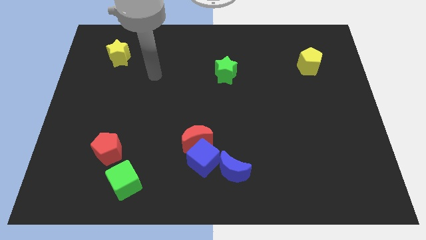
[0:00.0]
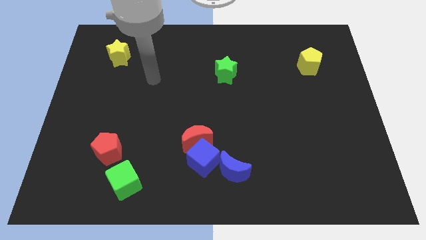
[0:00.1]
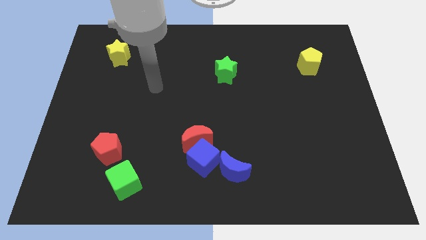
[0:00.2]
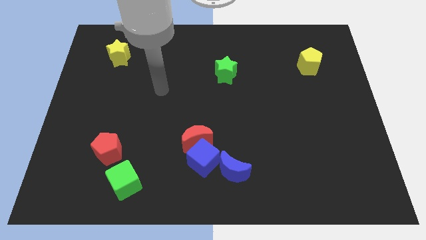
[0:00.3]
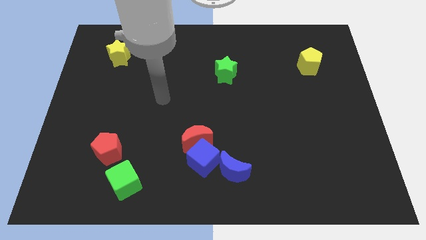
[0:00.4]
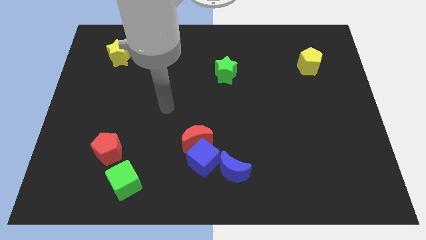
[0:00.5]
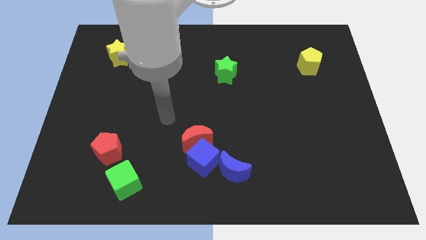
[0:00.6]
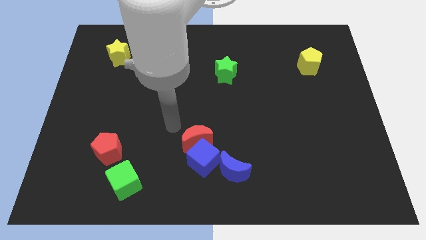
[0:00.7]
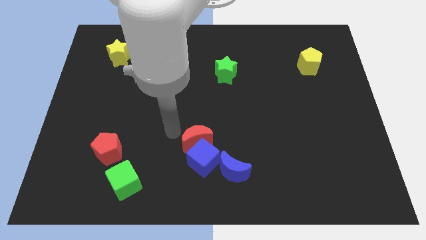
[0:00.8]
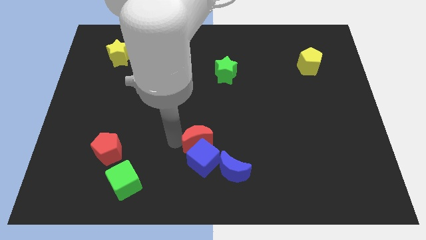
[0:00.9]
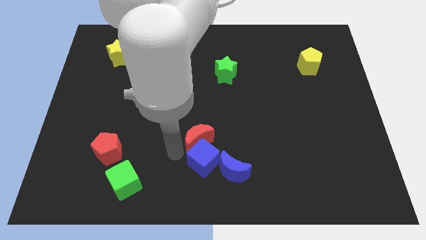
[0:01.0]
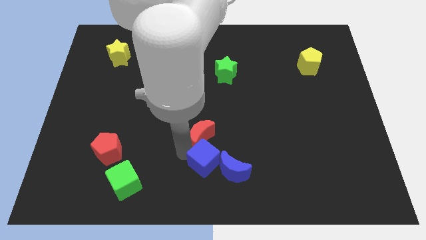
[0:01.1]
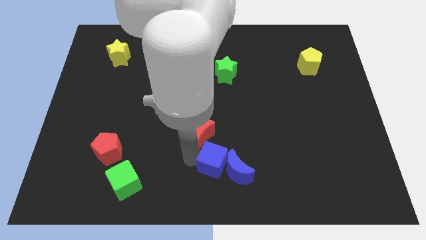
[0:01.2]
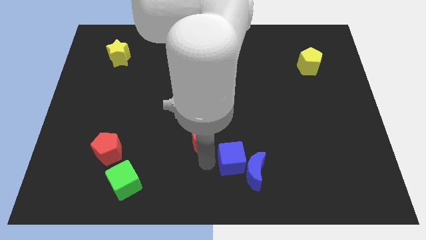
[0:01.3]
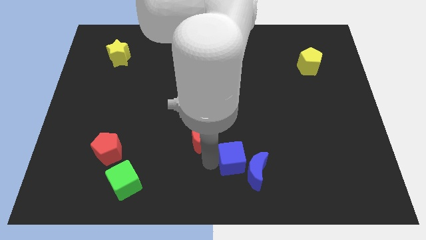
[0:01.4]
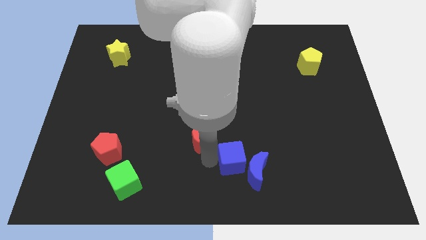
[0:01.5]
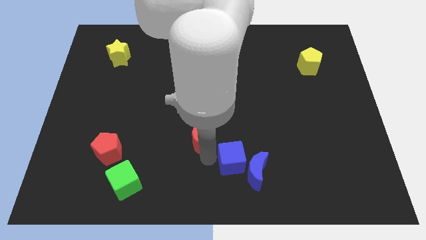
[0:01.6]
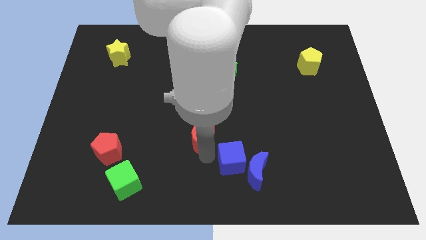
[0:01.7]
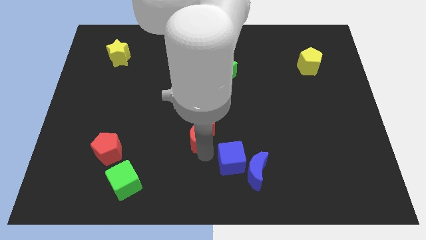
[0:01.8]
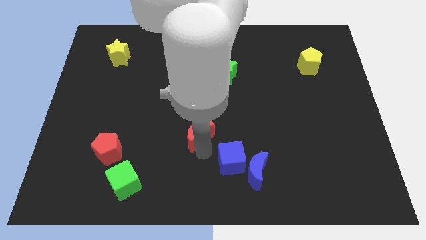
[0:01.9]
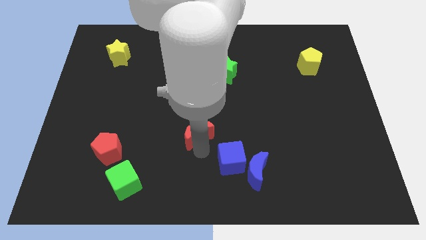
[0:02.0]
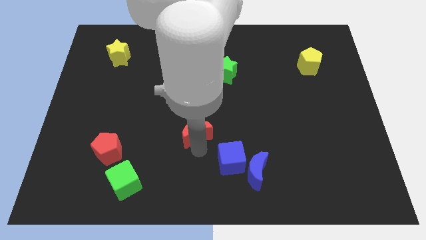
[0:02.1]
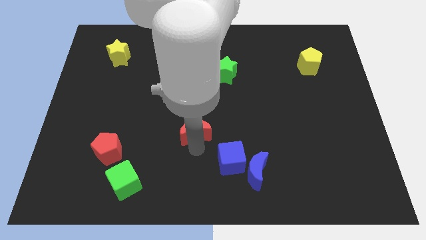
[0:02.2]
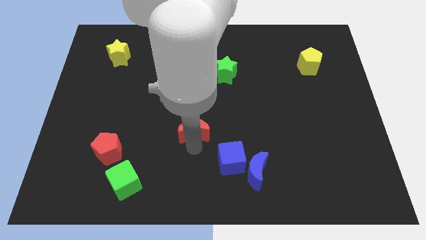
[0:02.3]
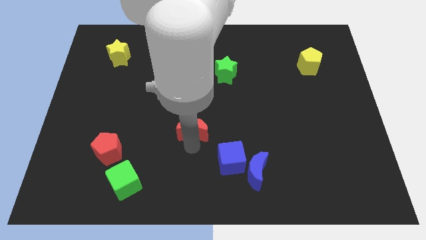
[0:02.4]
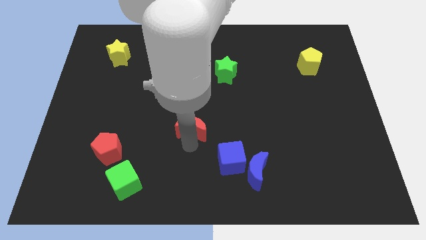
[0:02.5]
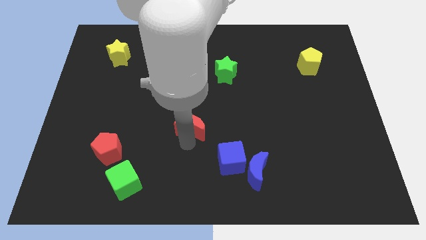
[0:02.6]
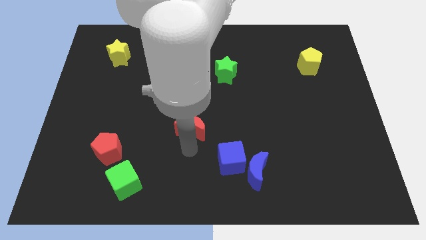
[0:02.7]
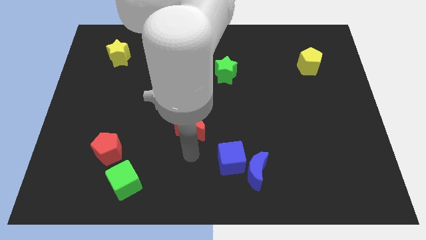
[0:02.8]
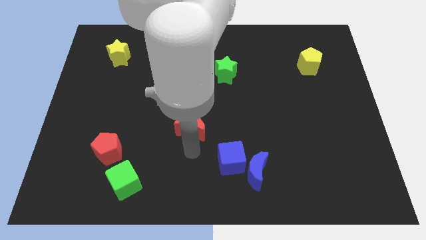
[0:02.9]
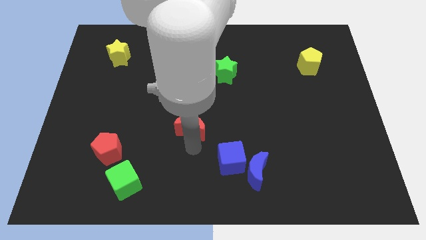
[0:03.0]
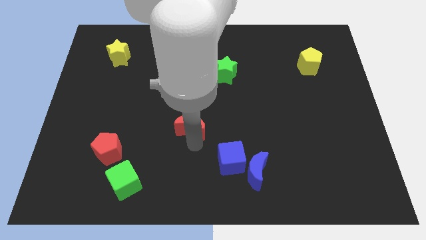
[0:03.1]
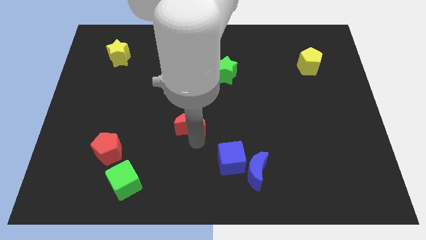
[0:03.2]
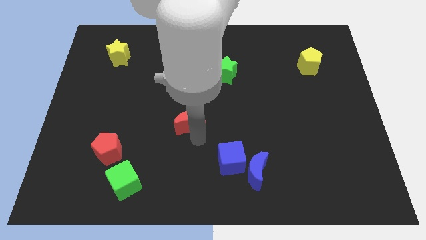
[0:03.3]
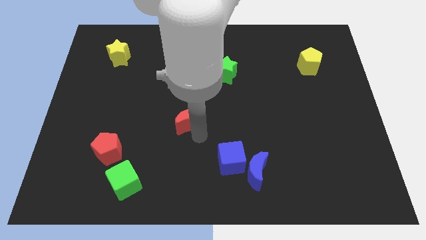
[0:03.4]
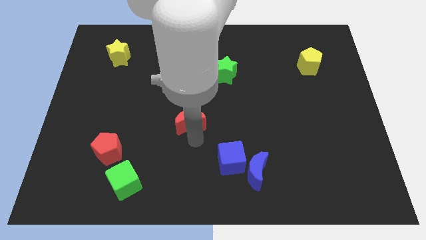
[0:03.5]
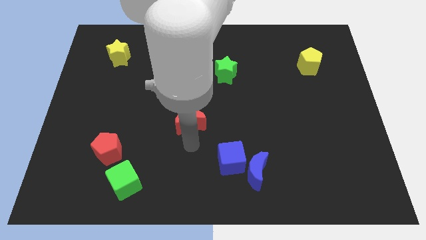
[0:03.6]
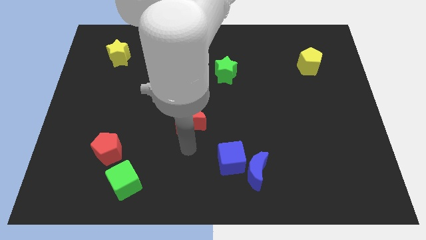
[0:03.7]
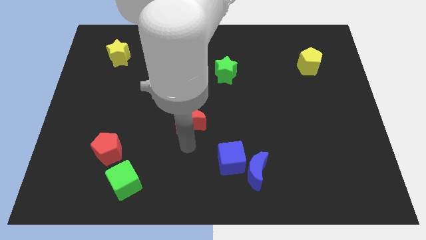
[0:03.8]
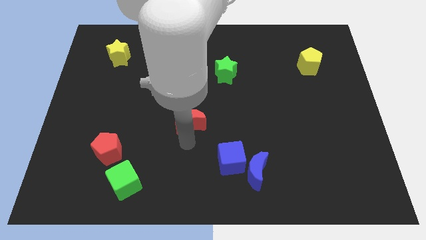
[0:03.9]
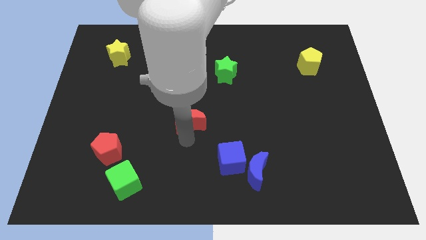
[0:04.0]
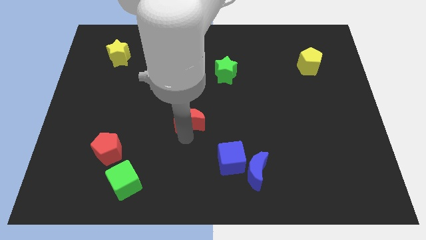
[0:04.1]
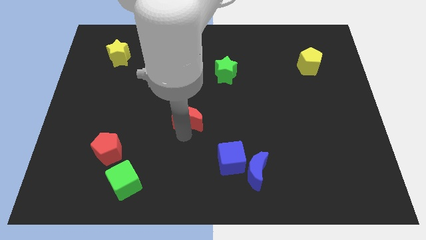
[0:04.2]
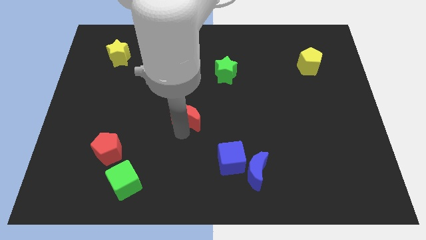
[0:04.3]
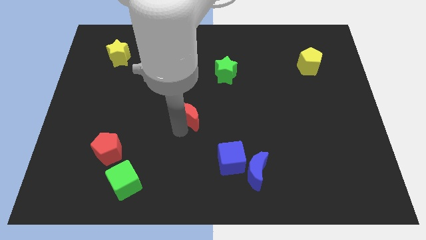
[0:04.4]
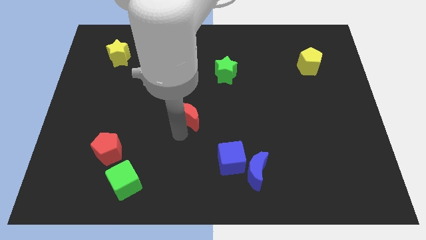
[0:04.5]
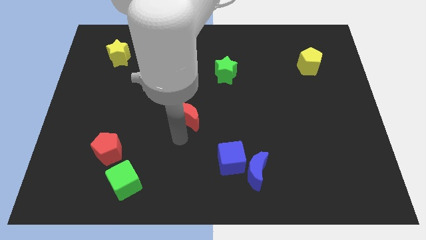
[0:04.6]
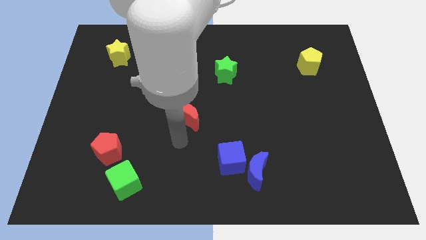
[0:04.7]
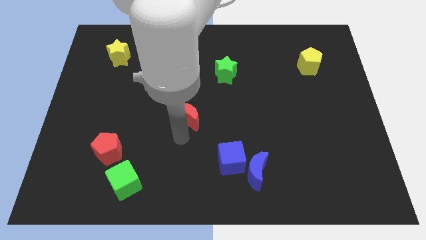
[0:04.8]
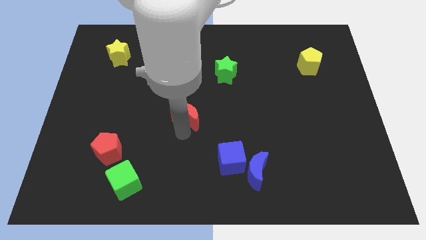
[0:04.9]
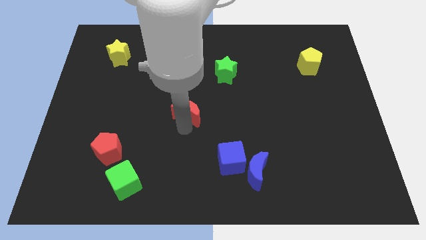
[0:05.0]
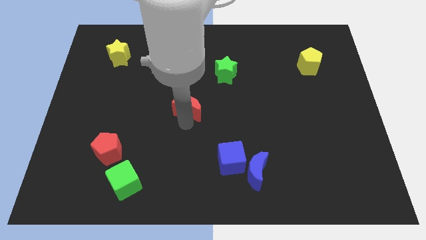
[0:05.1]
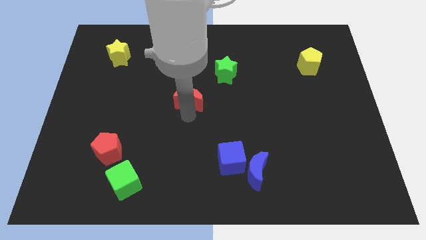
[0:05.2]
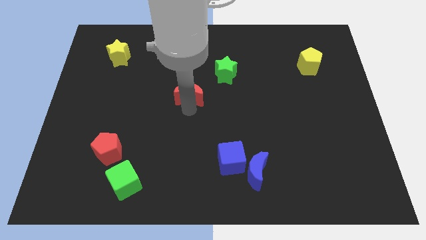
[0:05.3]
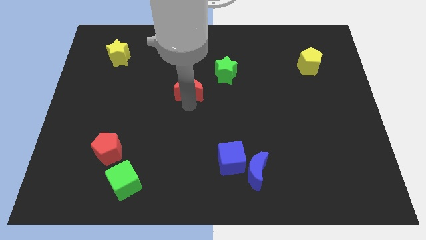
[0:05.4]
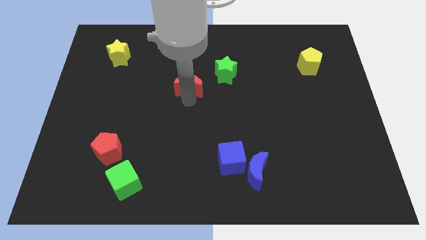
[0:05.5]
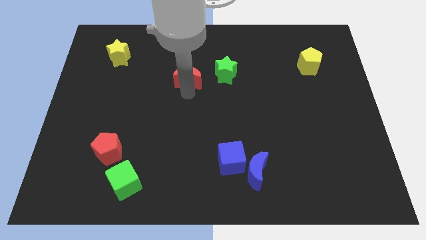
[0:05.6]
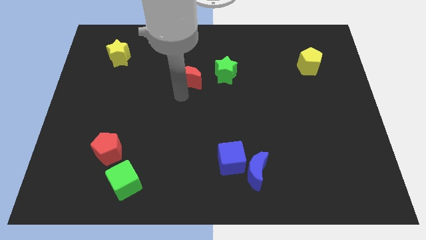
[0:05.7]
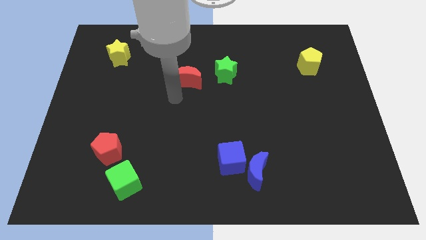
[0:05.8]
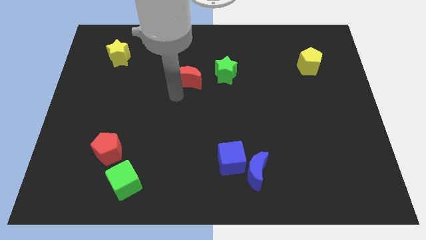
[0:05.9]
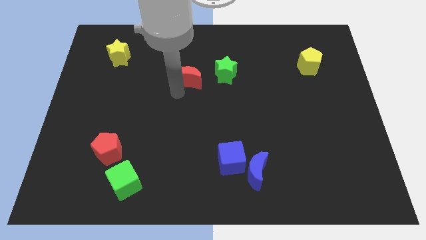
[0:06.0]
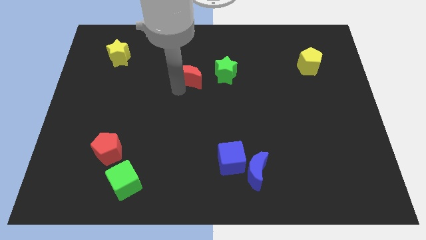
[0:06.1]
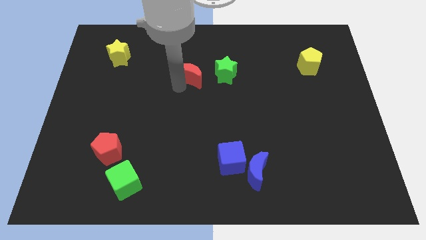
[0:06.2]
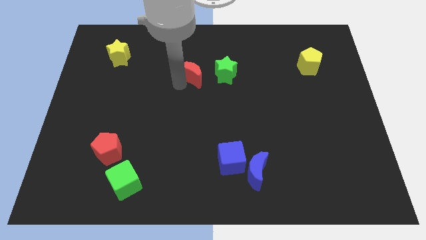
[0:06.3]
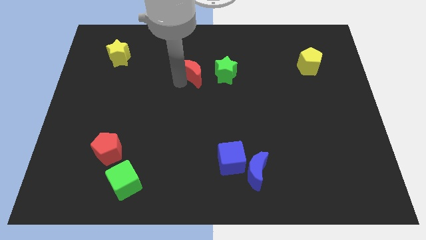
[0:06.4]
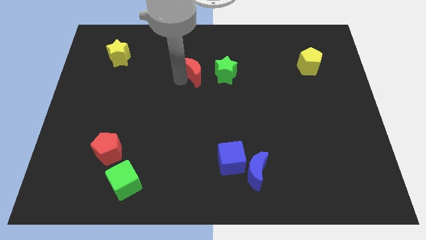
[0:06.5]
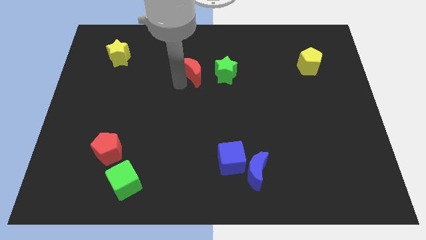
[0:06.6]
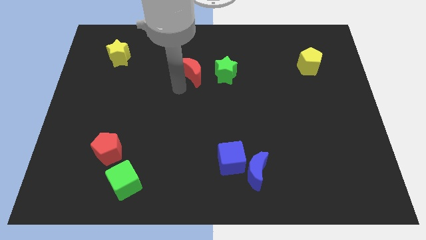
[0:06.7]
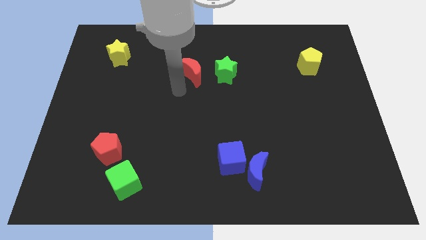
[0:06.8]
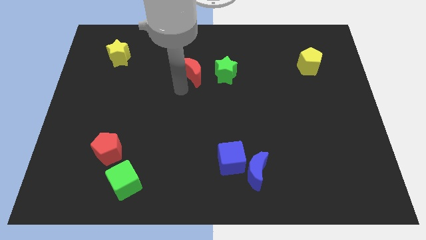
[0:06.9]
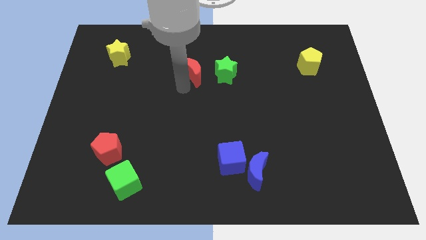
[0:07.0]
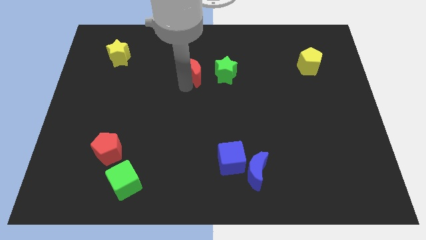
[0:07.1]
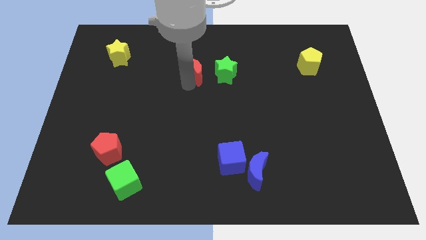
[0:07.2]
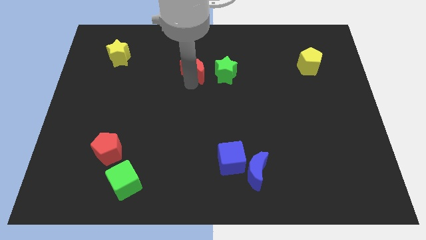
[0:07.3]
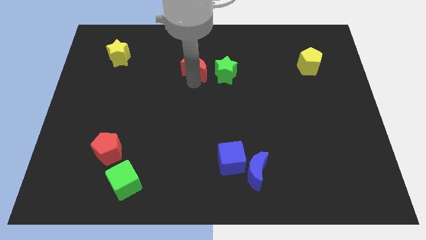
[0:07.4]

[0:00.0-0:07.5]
slide the red moon diagonally up and to the left of the green star

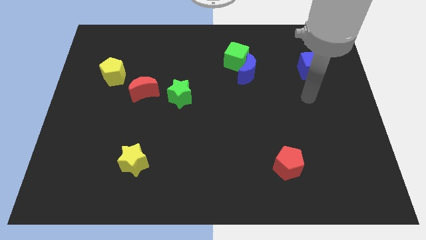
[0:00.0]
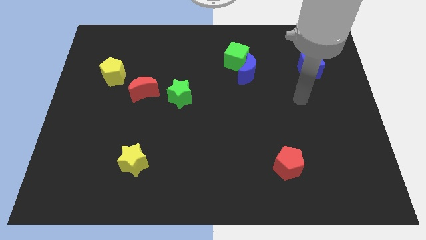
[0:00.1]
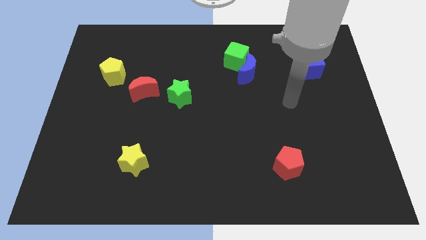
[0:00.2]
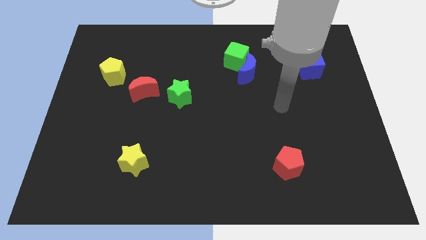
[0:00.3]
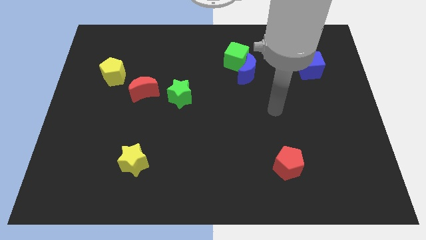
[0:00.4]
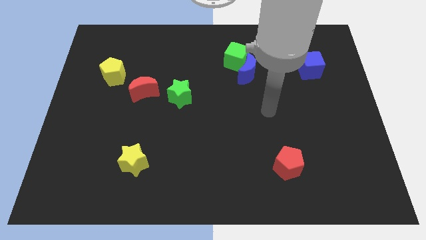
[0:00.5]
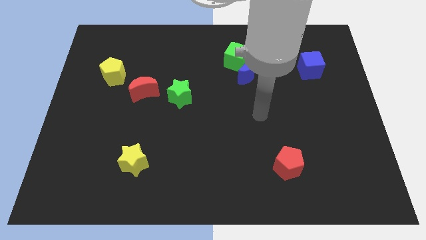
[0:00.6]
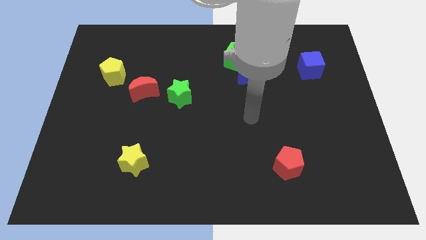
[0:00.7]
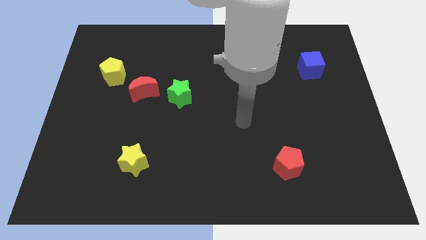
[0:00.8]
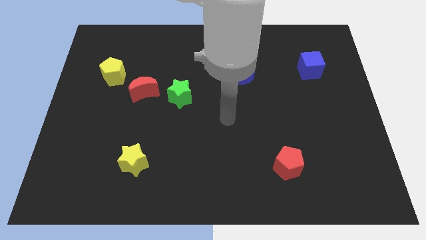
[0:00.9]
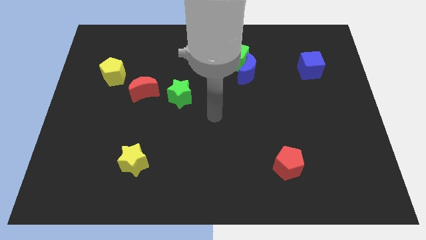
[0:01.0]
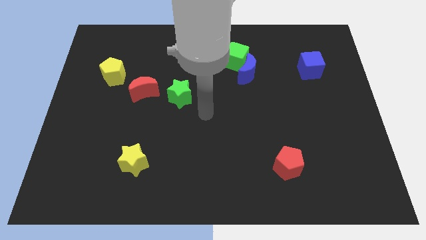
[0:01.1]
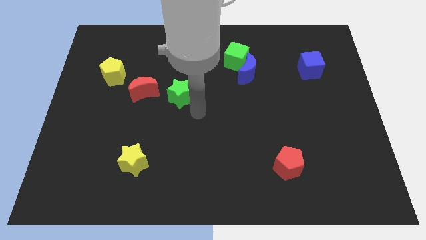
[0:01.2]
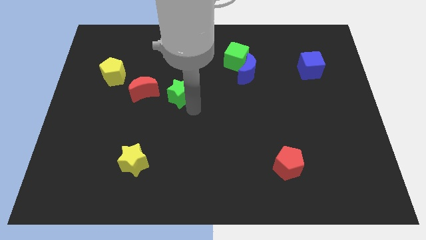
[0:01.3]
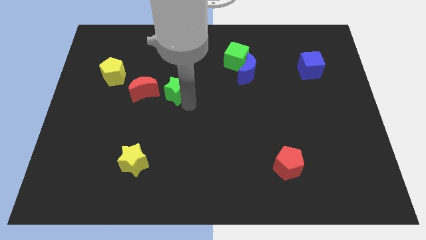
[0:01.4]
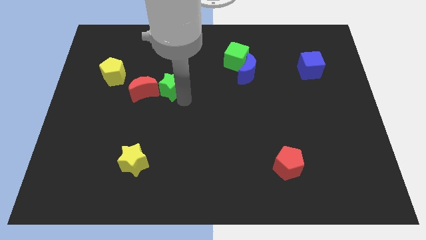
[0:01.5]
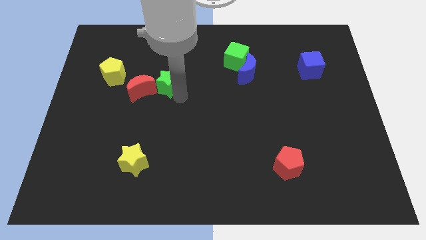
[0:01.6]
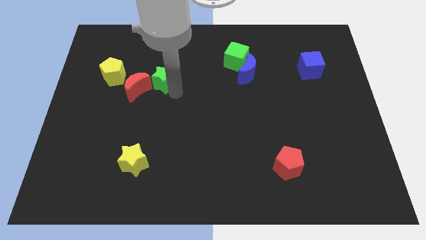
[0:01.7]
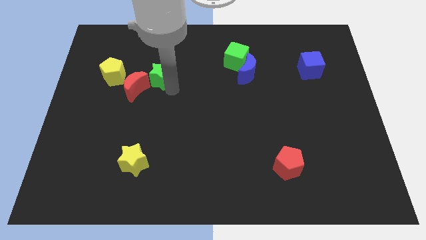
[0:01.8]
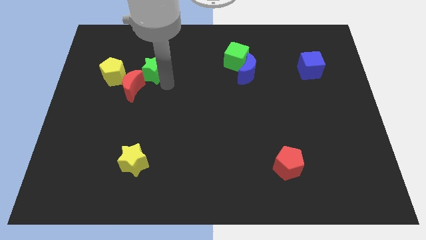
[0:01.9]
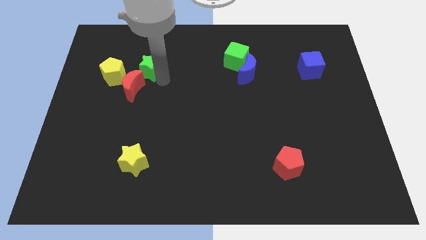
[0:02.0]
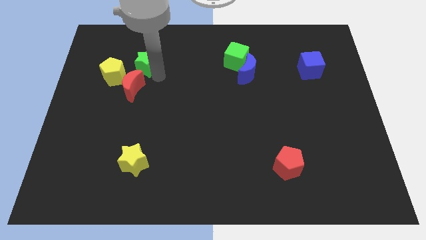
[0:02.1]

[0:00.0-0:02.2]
move the green star to the top right of the yellow pentagon
